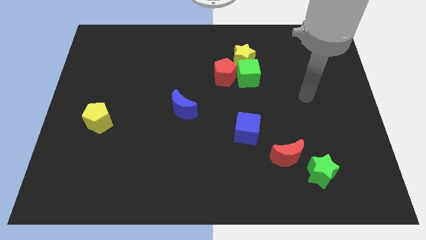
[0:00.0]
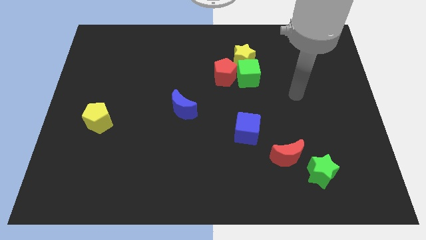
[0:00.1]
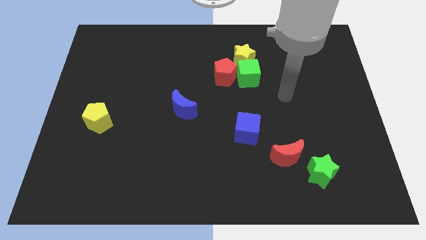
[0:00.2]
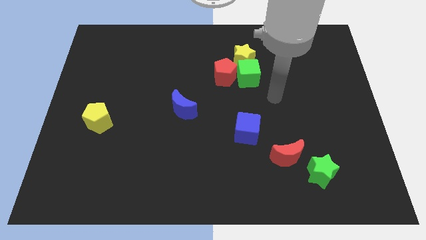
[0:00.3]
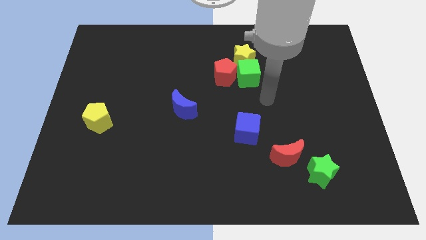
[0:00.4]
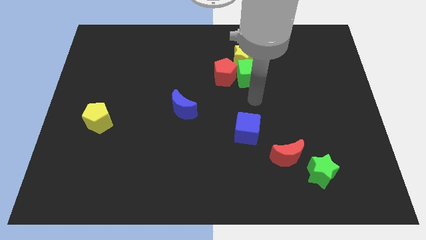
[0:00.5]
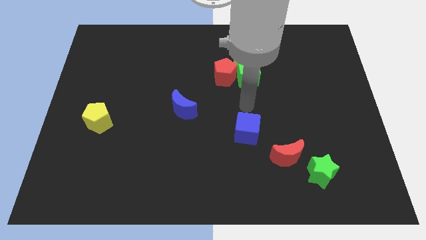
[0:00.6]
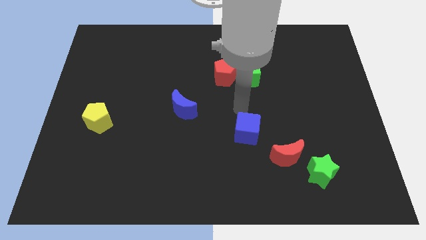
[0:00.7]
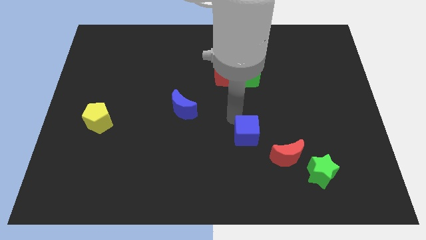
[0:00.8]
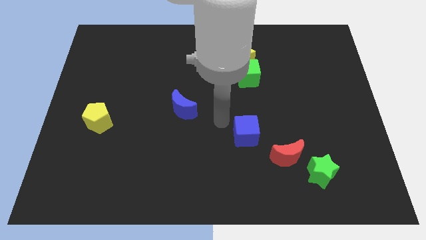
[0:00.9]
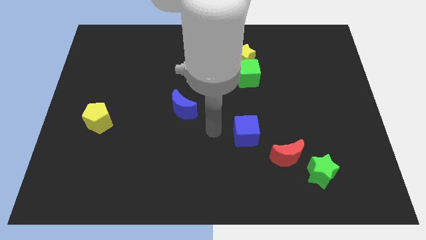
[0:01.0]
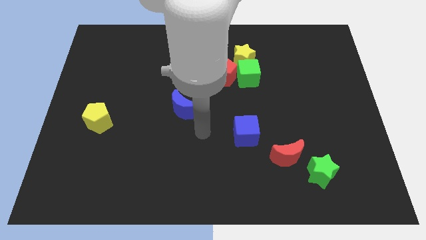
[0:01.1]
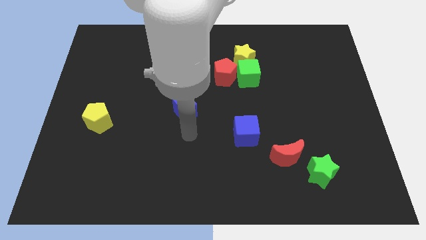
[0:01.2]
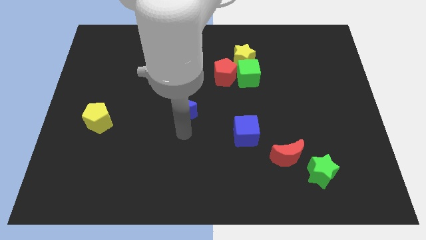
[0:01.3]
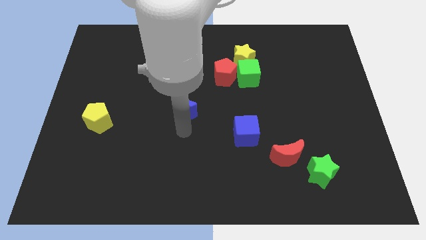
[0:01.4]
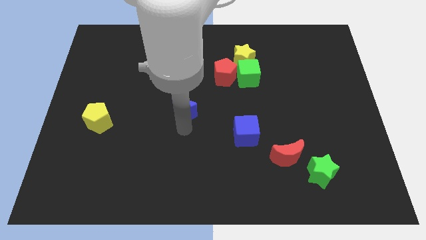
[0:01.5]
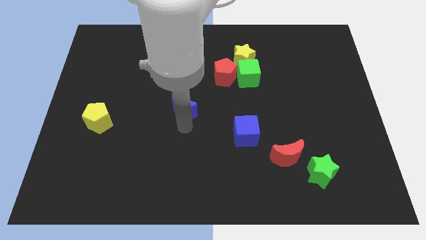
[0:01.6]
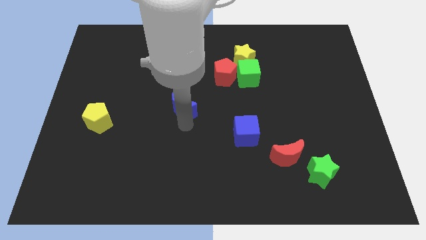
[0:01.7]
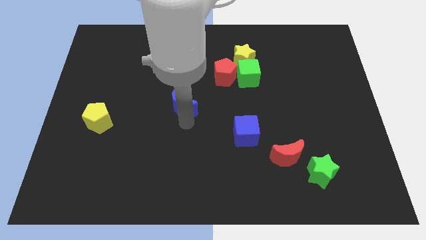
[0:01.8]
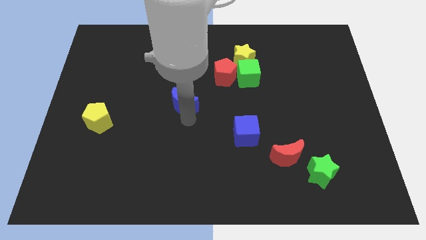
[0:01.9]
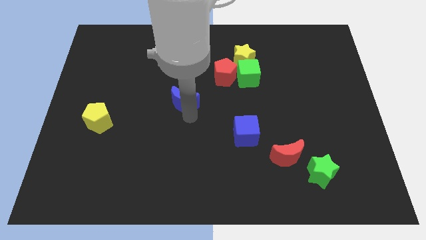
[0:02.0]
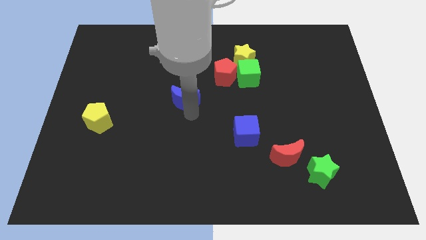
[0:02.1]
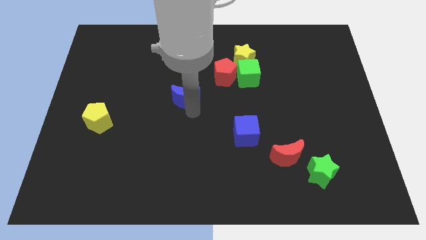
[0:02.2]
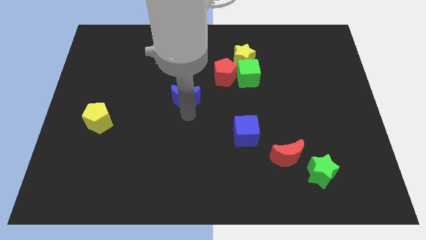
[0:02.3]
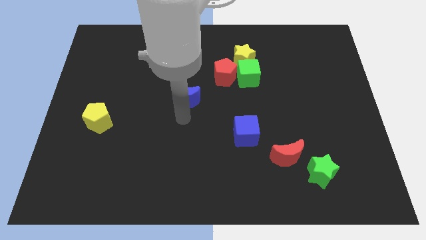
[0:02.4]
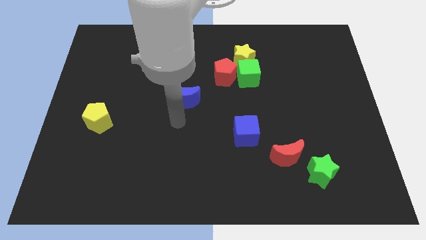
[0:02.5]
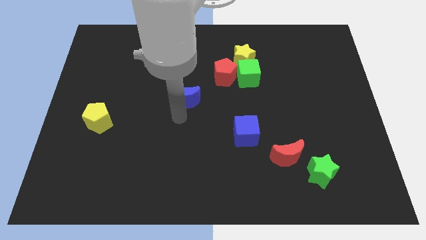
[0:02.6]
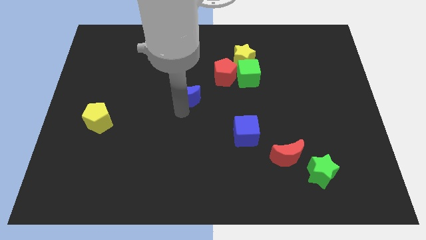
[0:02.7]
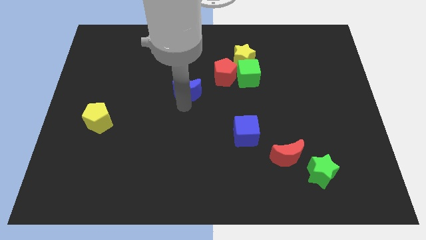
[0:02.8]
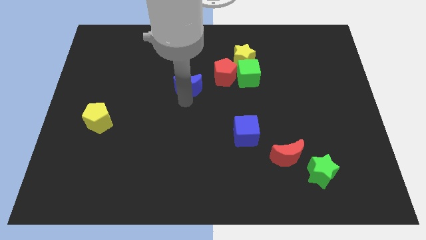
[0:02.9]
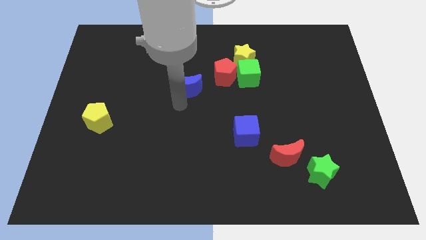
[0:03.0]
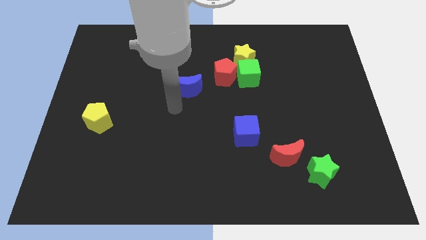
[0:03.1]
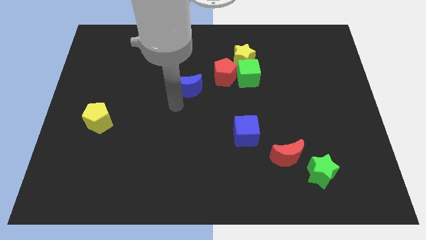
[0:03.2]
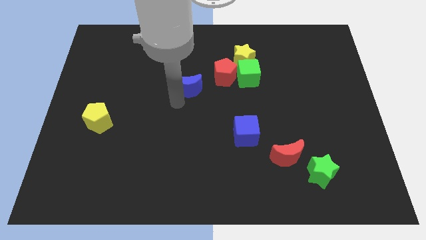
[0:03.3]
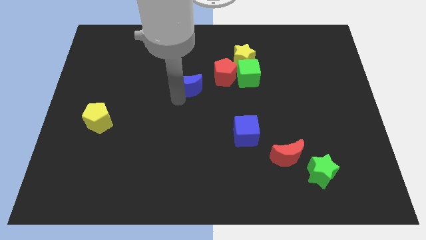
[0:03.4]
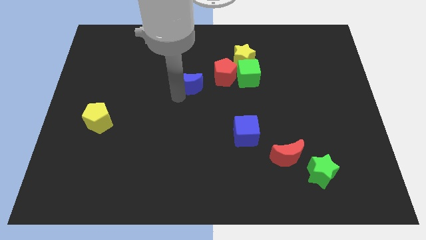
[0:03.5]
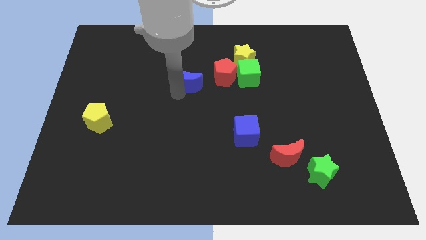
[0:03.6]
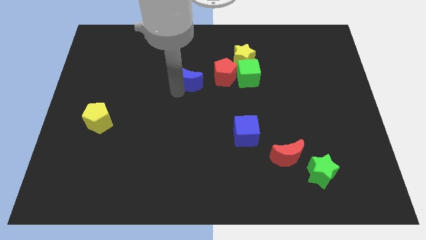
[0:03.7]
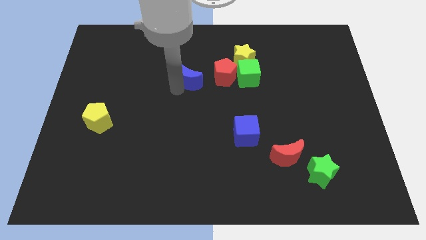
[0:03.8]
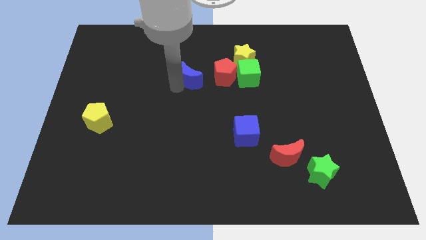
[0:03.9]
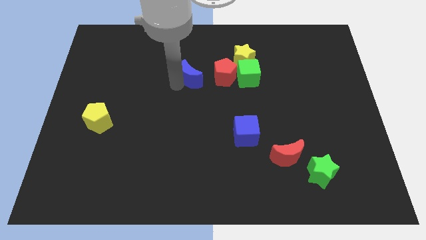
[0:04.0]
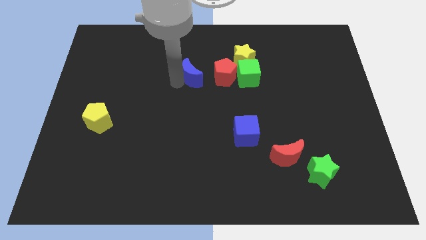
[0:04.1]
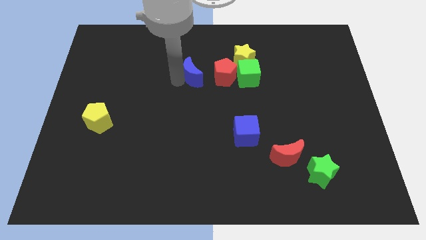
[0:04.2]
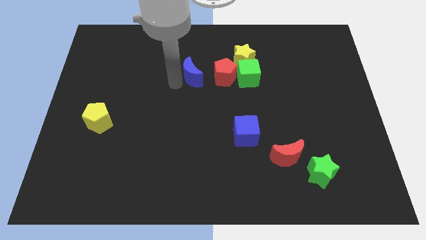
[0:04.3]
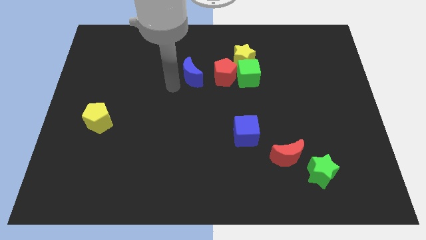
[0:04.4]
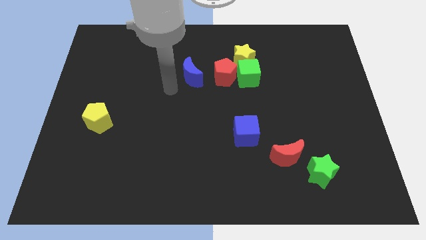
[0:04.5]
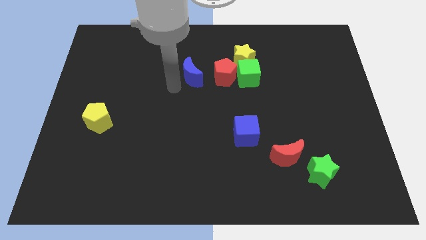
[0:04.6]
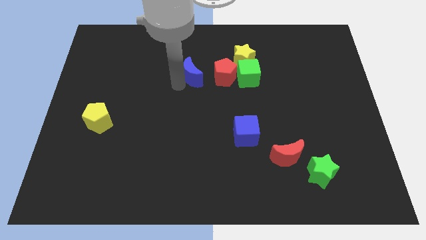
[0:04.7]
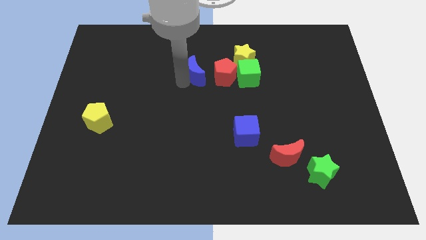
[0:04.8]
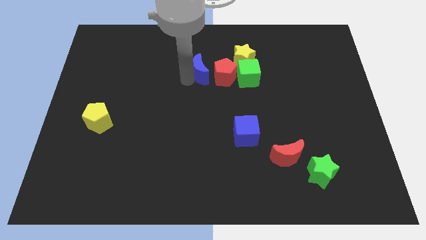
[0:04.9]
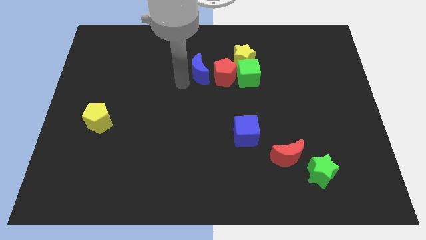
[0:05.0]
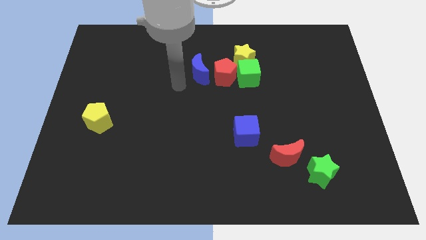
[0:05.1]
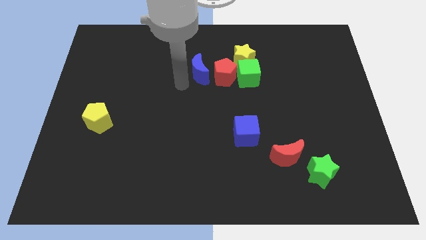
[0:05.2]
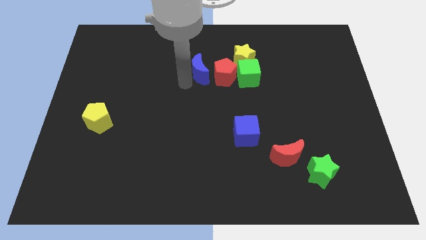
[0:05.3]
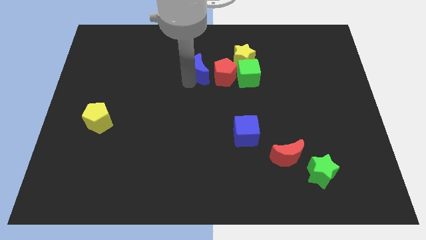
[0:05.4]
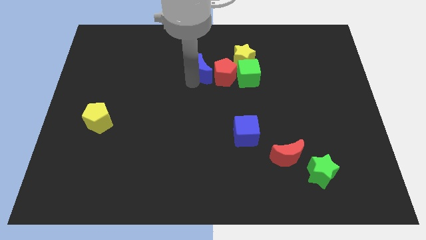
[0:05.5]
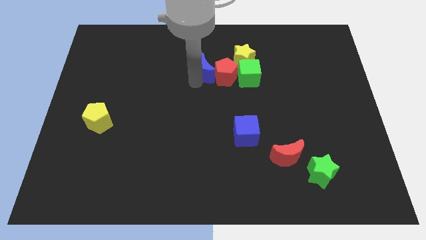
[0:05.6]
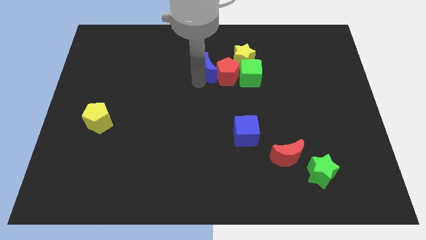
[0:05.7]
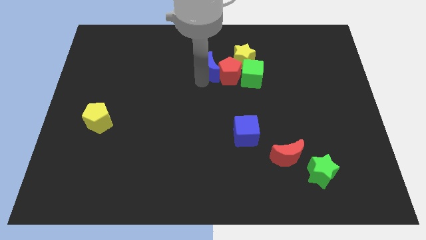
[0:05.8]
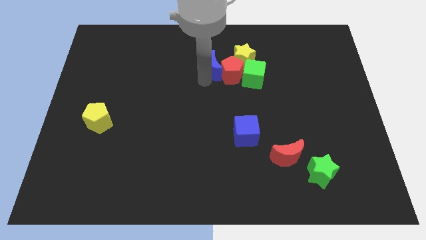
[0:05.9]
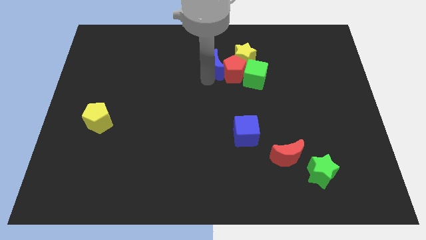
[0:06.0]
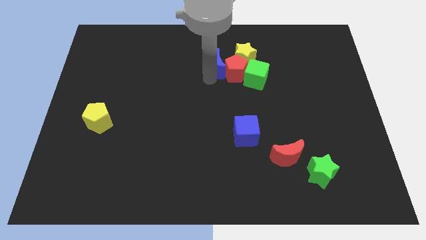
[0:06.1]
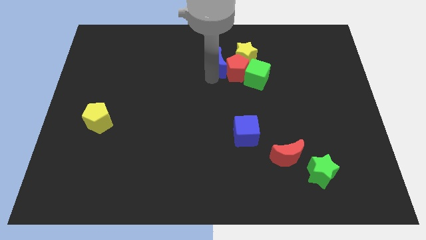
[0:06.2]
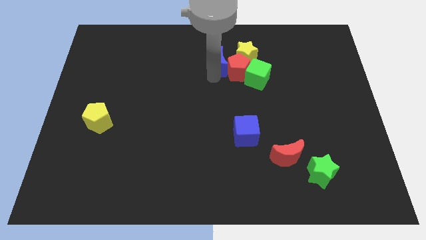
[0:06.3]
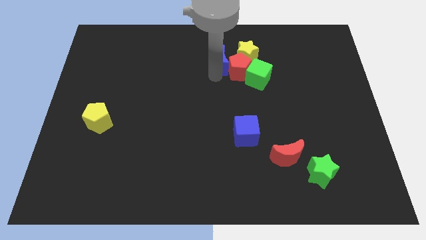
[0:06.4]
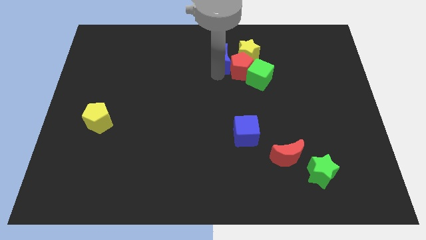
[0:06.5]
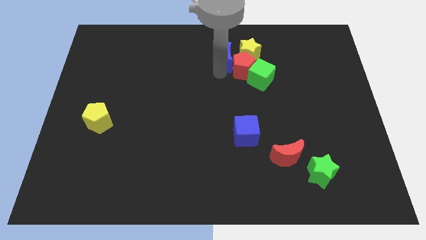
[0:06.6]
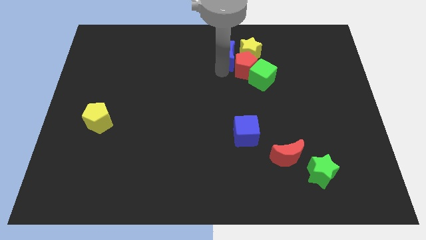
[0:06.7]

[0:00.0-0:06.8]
push the blue moon to the yellow star

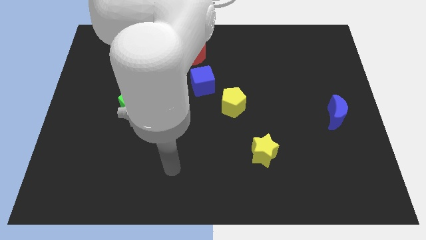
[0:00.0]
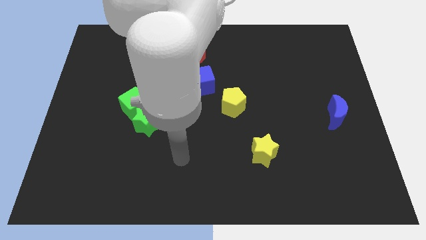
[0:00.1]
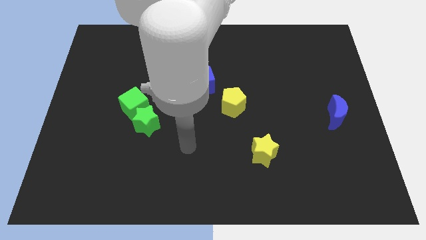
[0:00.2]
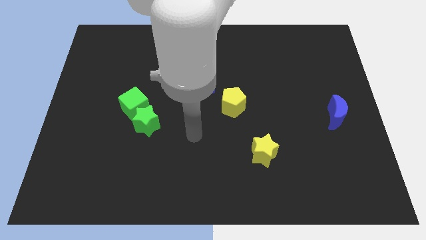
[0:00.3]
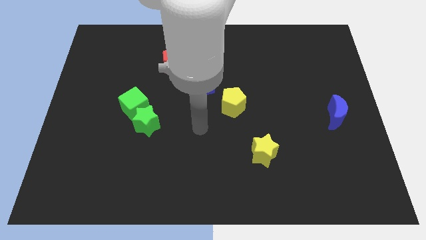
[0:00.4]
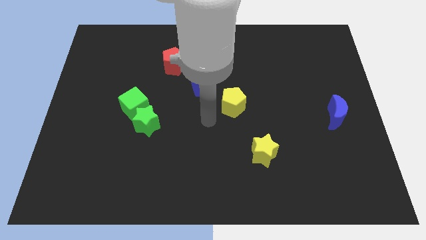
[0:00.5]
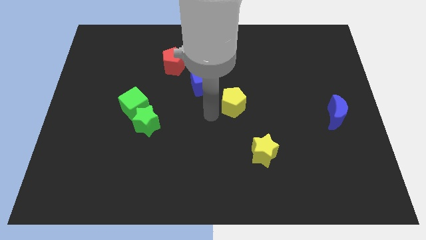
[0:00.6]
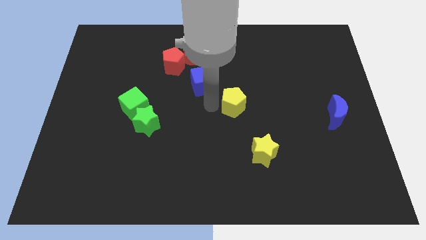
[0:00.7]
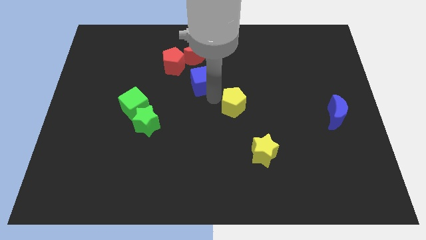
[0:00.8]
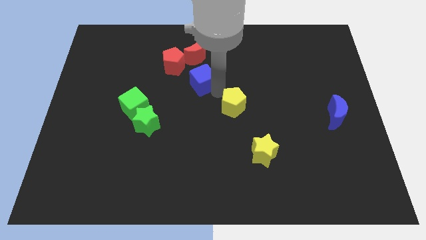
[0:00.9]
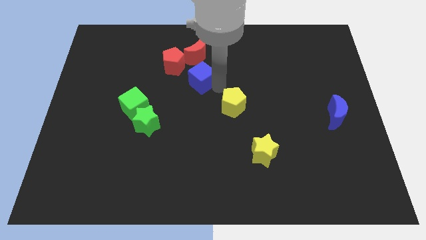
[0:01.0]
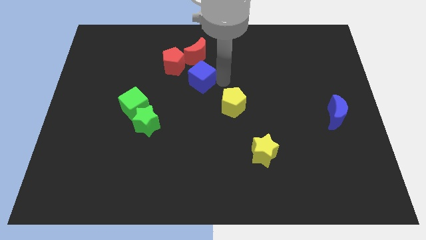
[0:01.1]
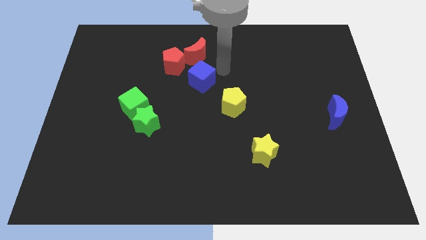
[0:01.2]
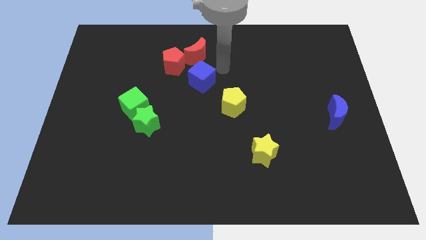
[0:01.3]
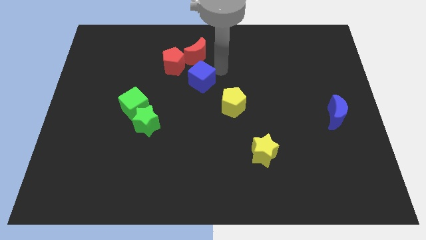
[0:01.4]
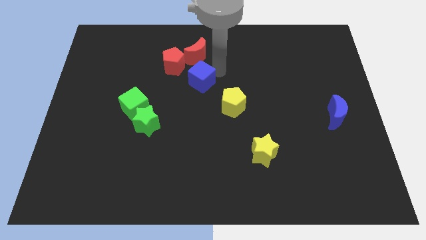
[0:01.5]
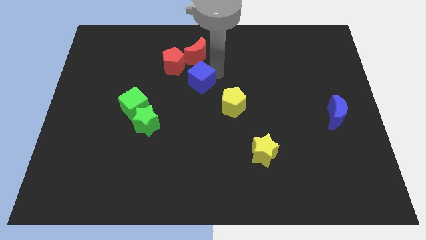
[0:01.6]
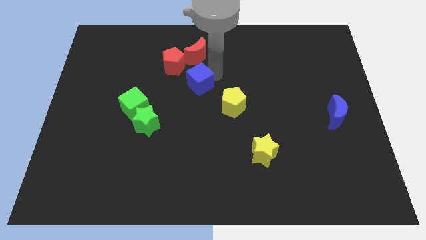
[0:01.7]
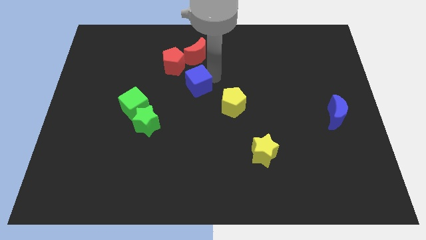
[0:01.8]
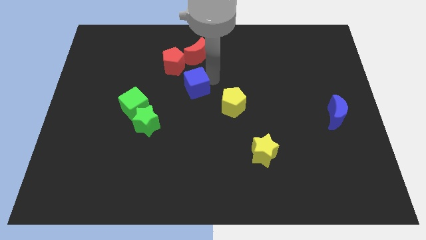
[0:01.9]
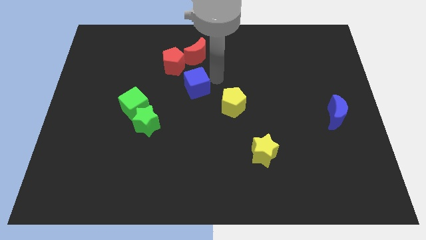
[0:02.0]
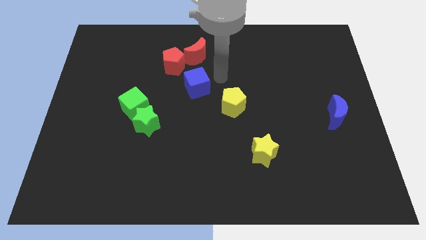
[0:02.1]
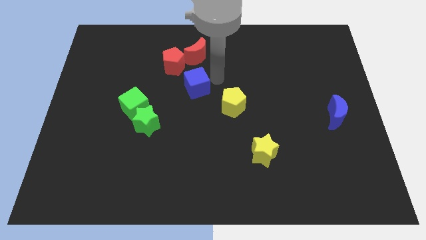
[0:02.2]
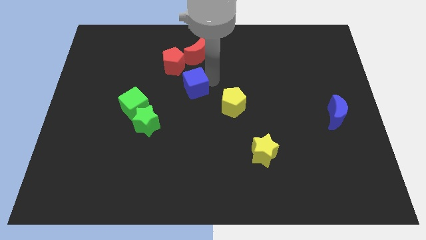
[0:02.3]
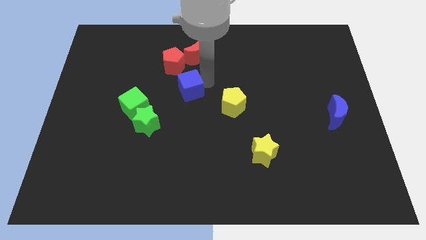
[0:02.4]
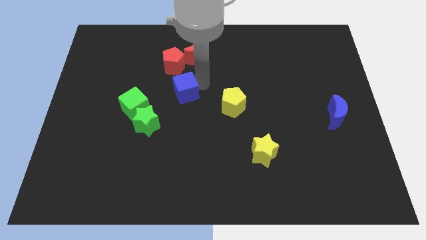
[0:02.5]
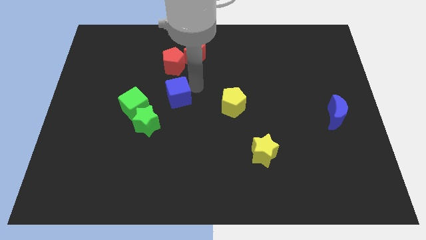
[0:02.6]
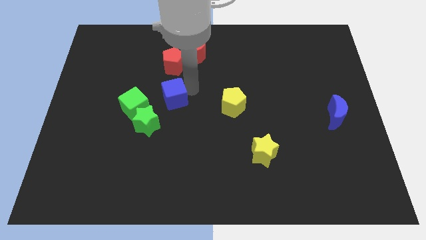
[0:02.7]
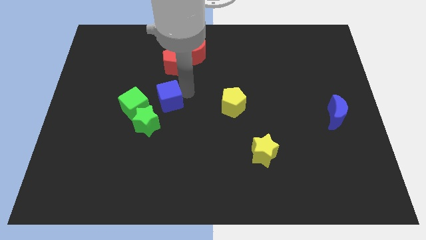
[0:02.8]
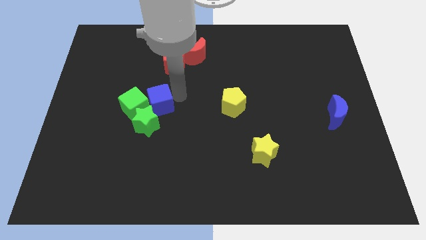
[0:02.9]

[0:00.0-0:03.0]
push the blue cube to the green cube
